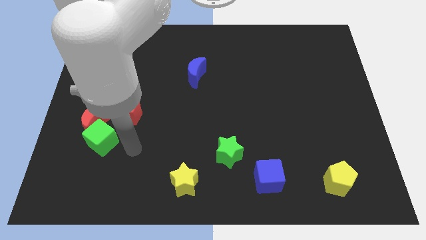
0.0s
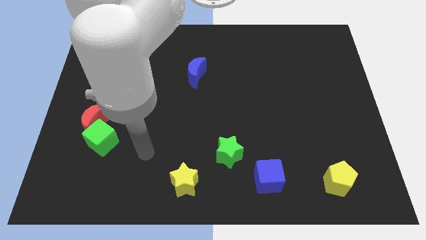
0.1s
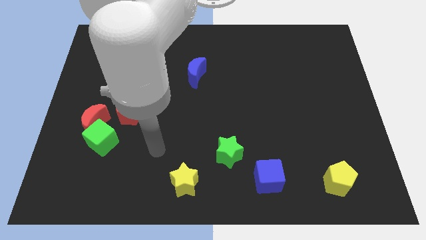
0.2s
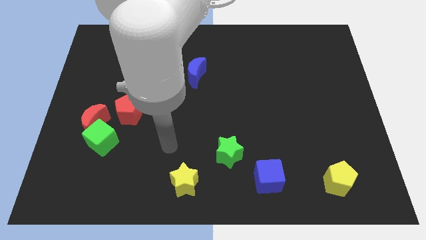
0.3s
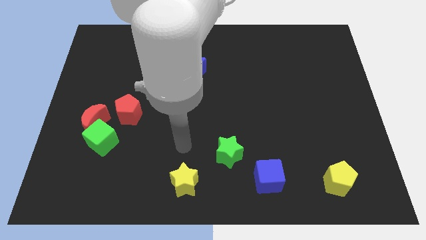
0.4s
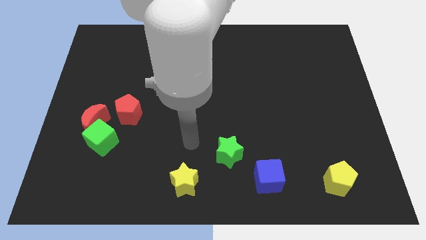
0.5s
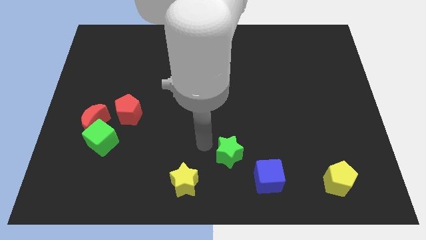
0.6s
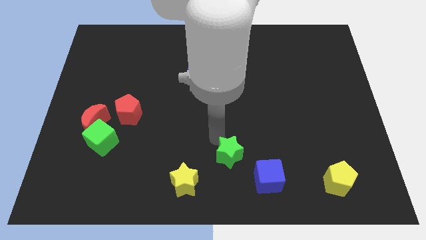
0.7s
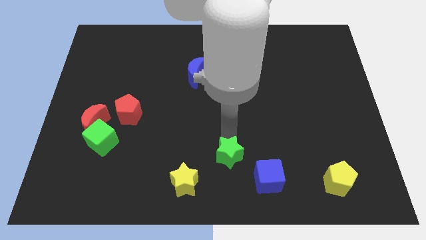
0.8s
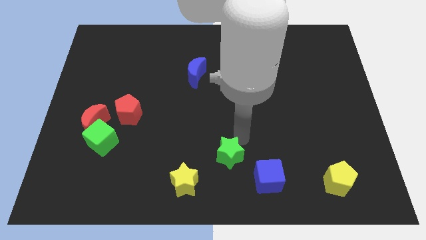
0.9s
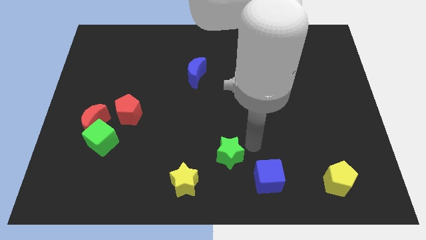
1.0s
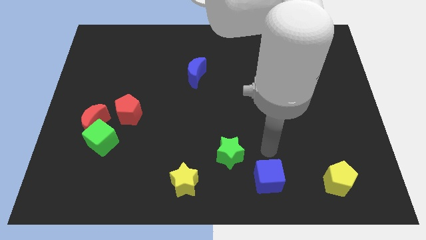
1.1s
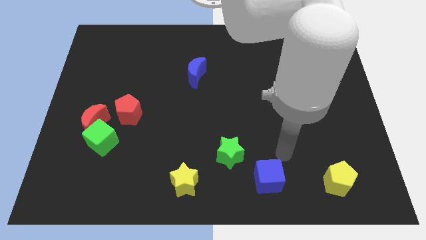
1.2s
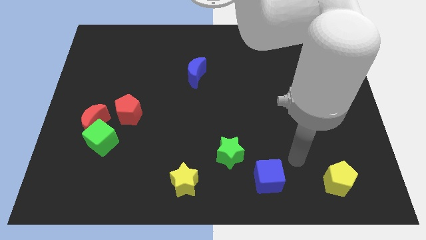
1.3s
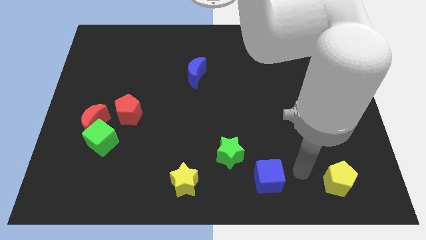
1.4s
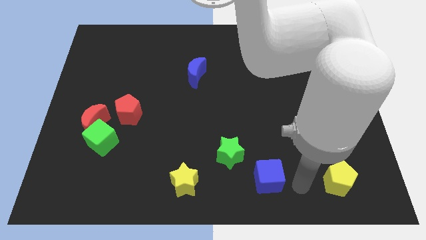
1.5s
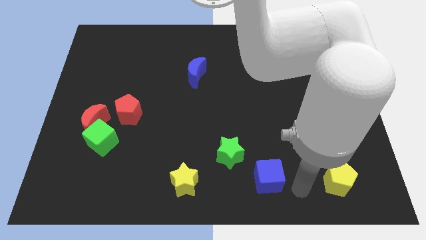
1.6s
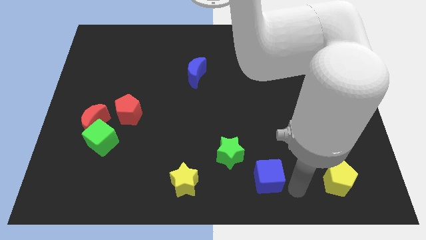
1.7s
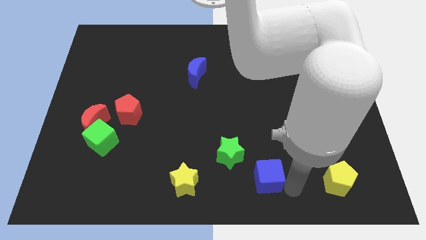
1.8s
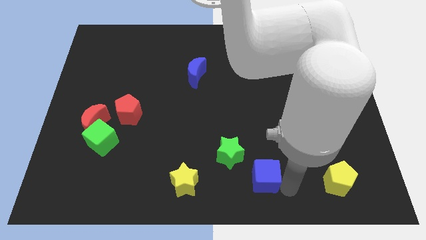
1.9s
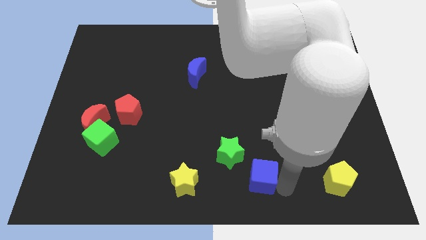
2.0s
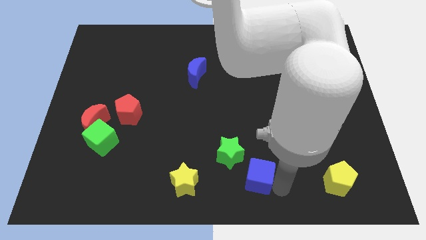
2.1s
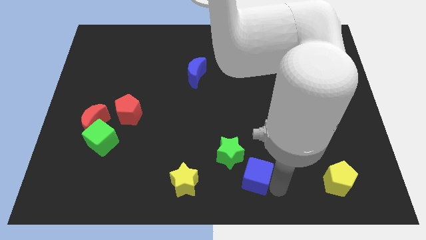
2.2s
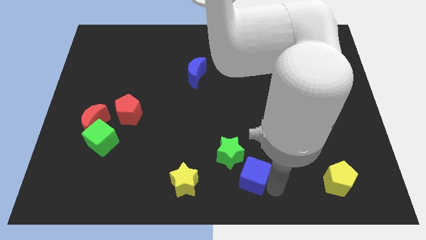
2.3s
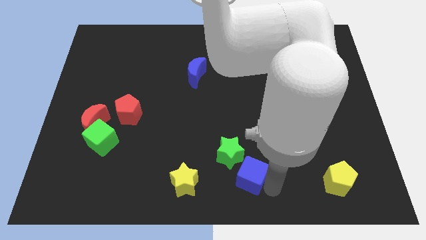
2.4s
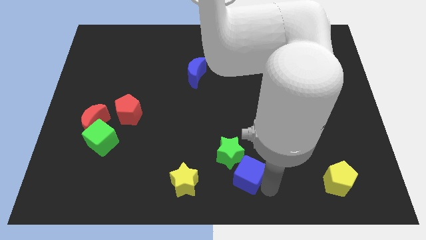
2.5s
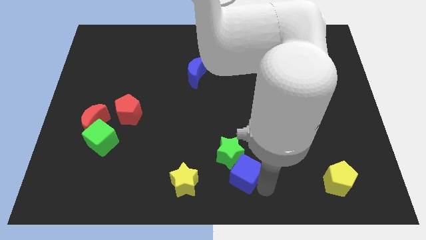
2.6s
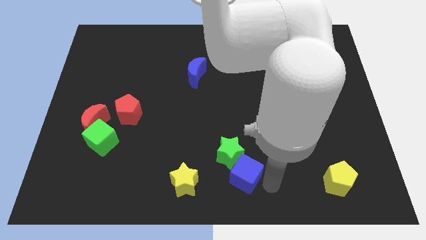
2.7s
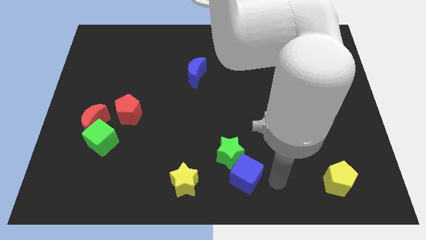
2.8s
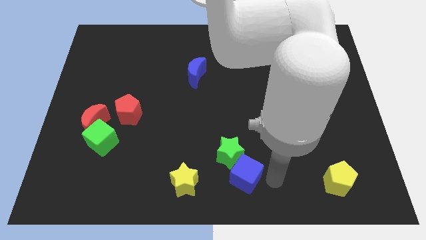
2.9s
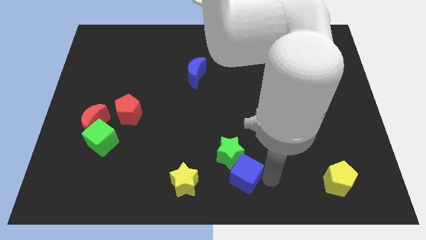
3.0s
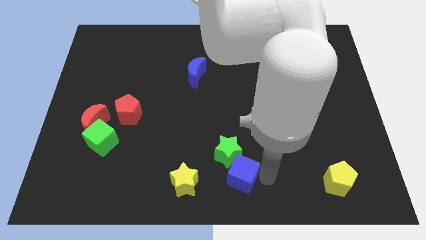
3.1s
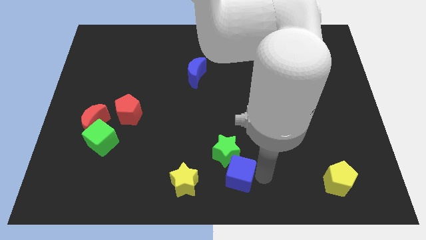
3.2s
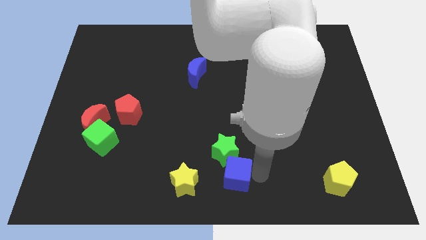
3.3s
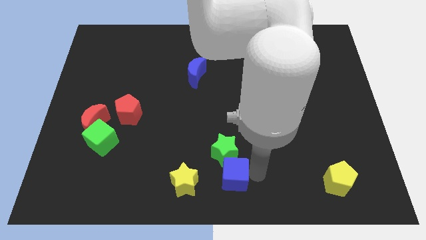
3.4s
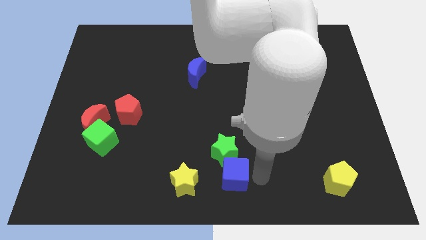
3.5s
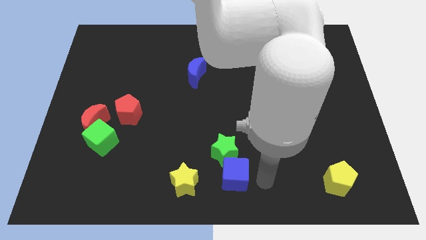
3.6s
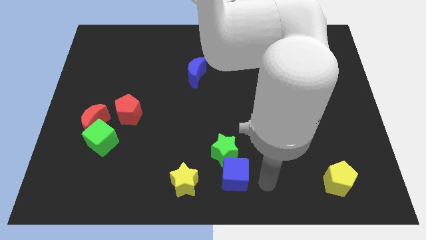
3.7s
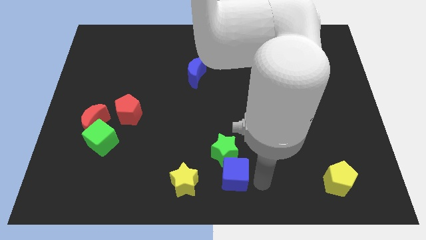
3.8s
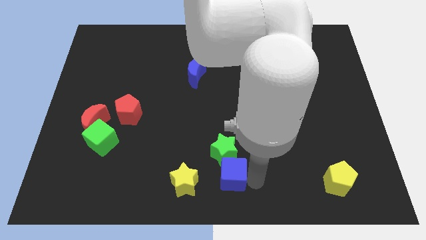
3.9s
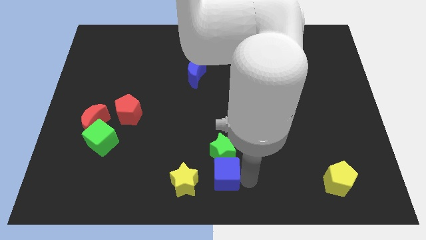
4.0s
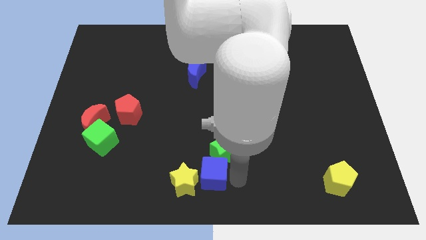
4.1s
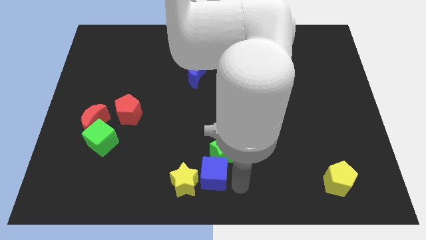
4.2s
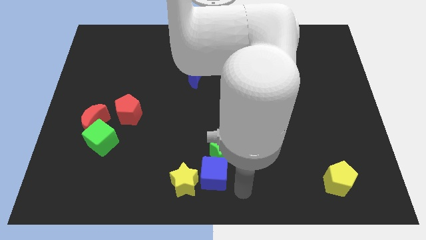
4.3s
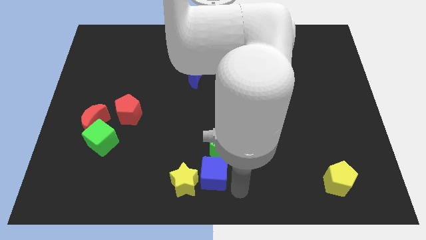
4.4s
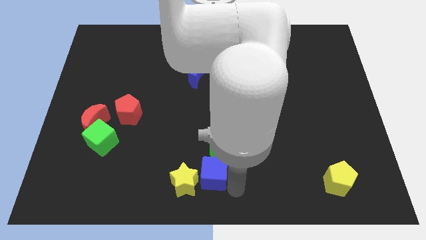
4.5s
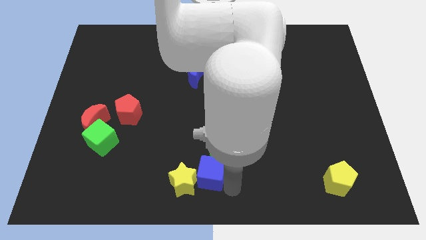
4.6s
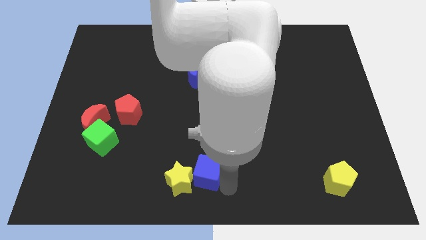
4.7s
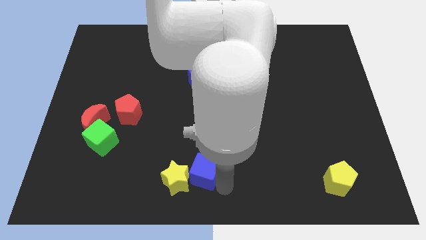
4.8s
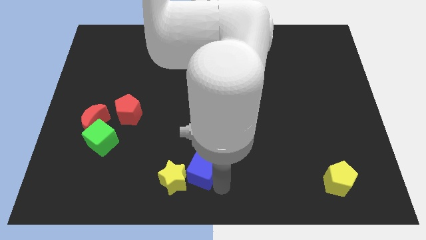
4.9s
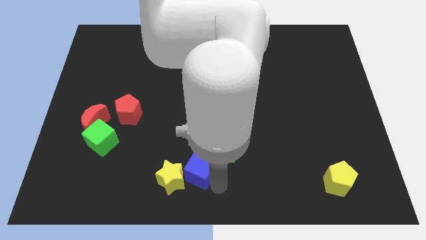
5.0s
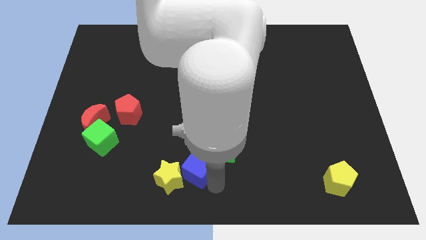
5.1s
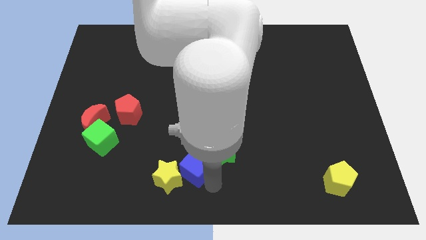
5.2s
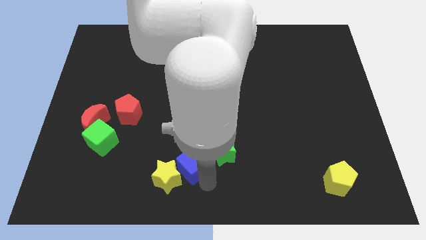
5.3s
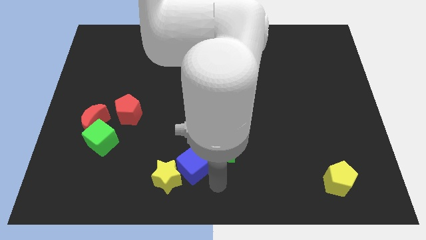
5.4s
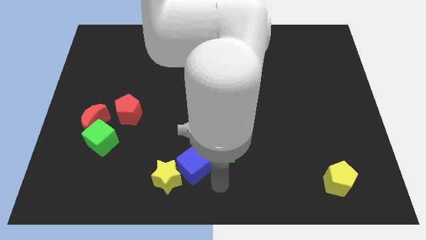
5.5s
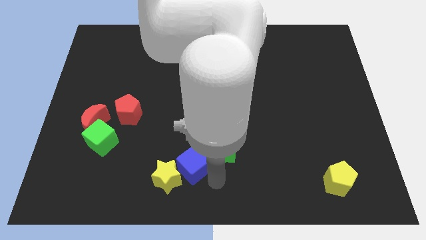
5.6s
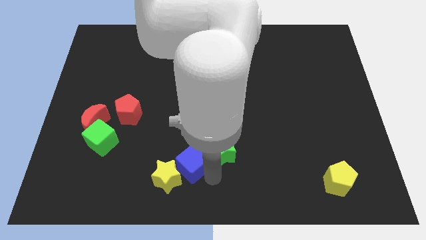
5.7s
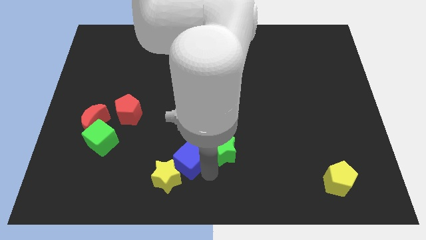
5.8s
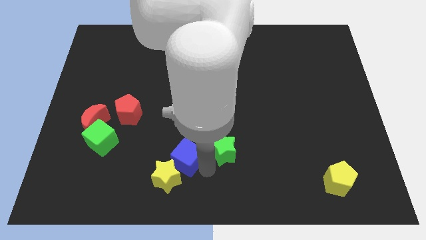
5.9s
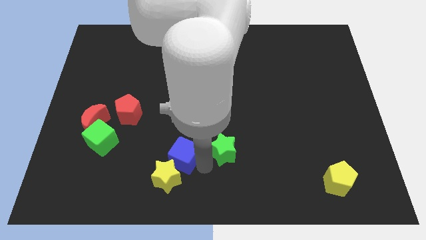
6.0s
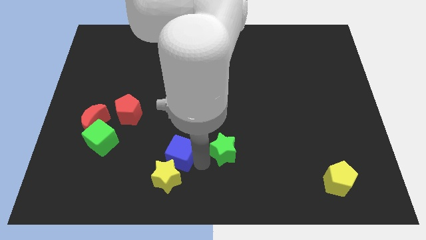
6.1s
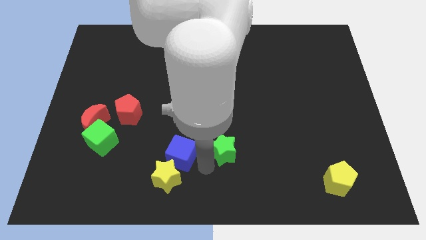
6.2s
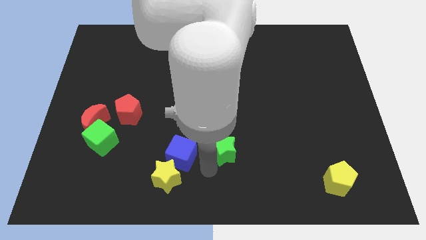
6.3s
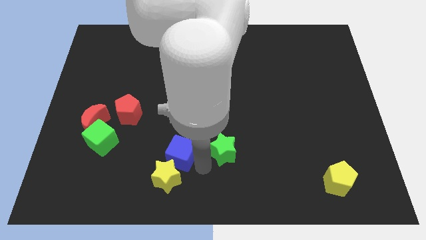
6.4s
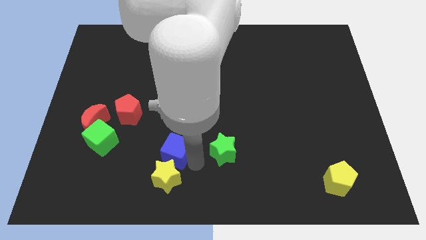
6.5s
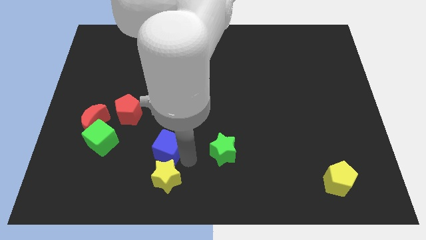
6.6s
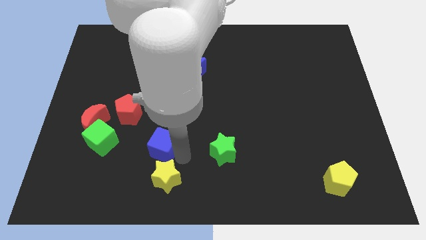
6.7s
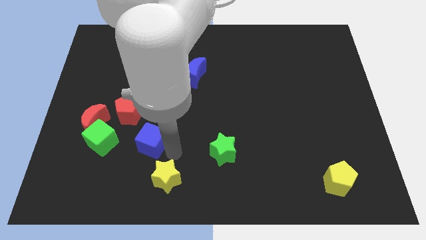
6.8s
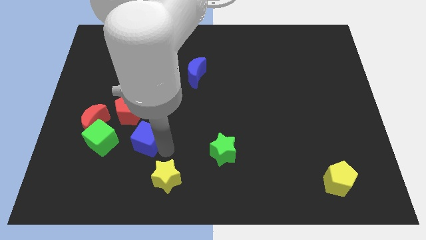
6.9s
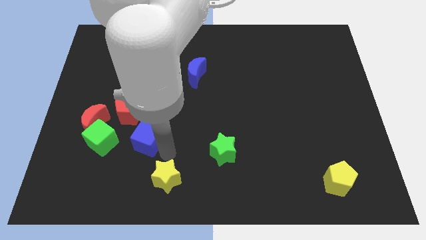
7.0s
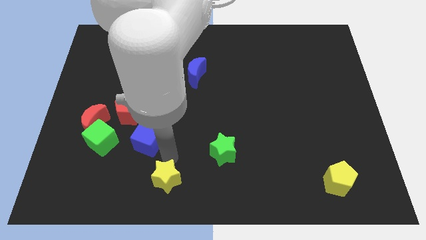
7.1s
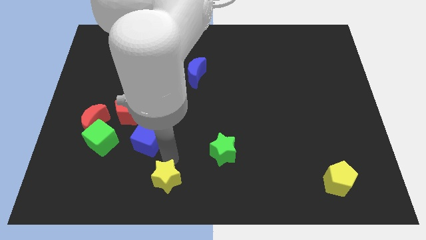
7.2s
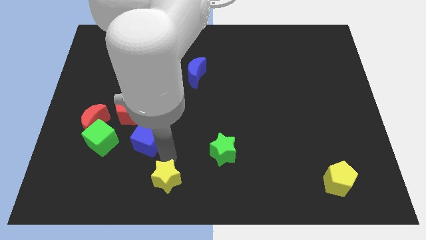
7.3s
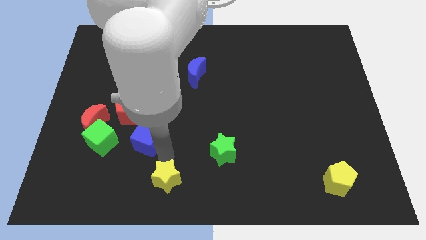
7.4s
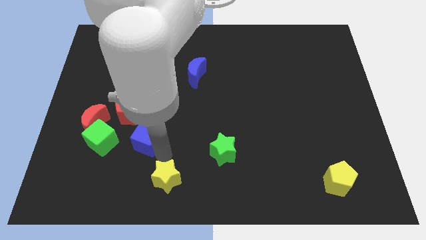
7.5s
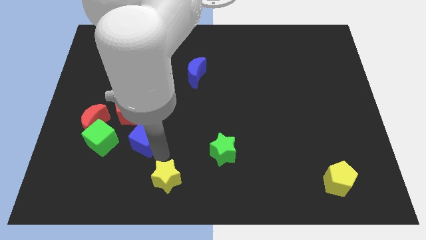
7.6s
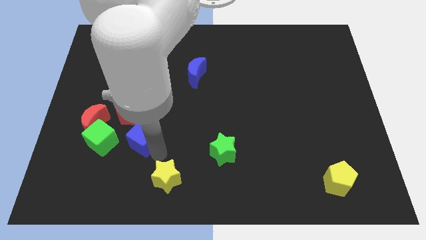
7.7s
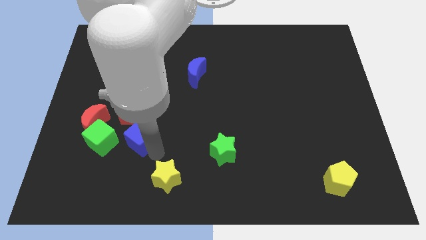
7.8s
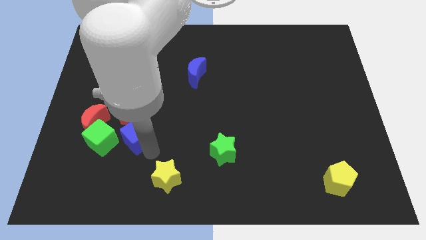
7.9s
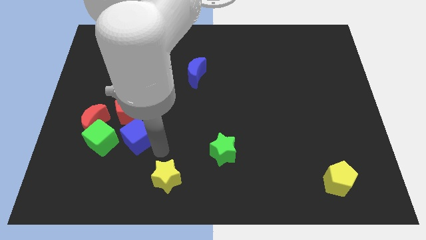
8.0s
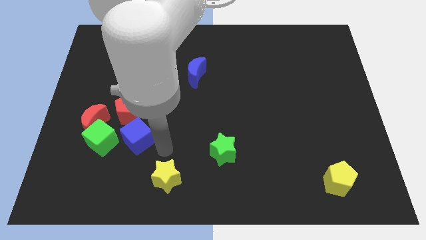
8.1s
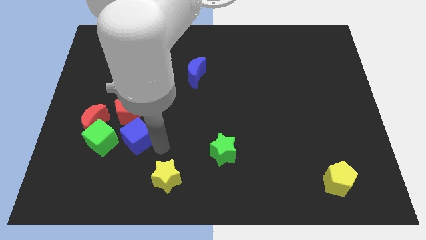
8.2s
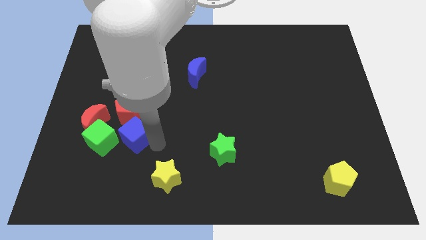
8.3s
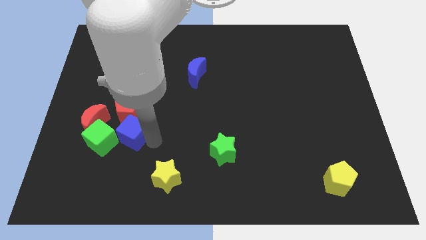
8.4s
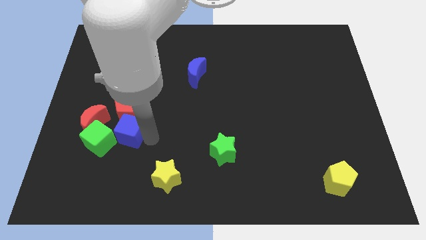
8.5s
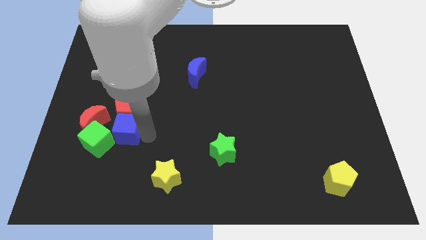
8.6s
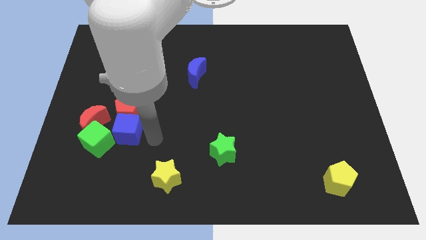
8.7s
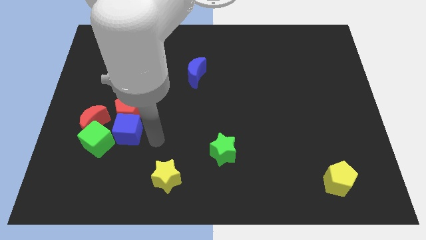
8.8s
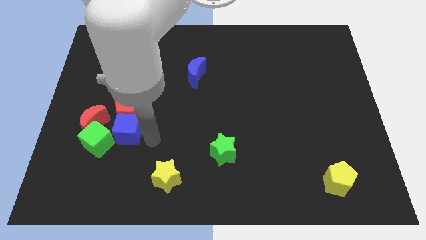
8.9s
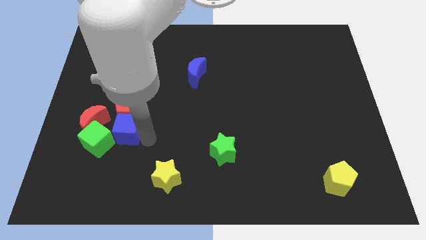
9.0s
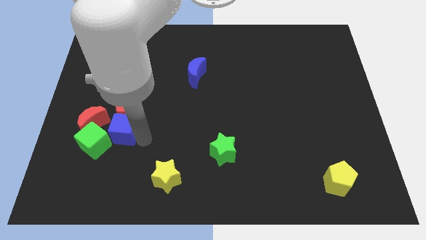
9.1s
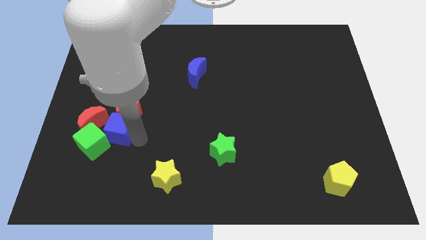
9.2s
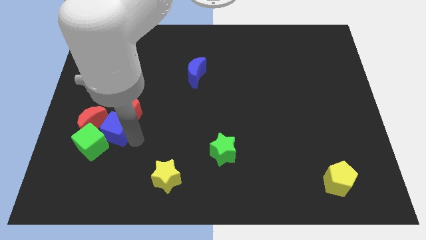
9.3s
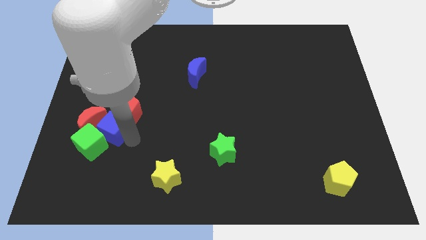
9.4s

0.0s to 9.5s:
push the blue cube close to the red moon
